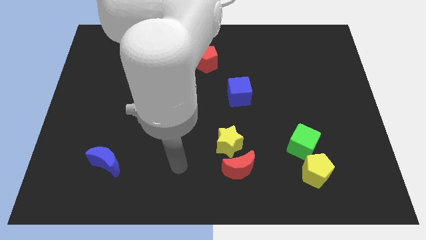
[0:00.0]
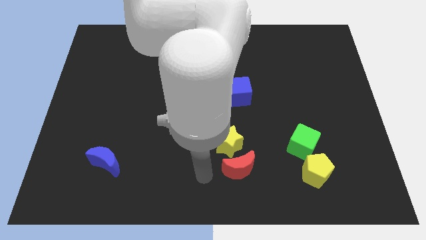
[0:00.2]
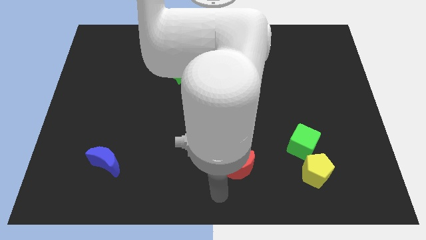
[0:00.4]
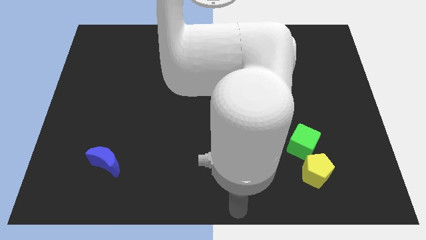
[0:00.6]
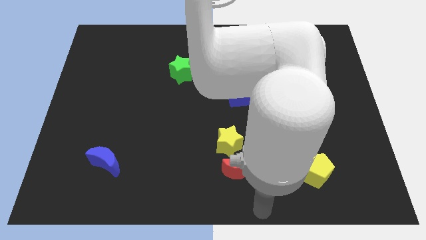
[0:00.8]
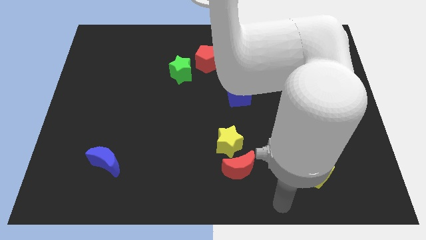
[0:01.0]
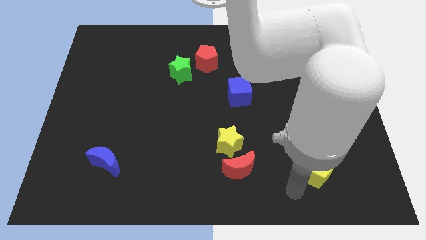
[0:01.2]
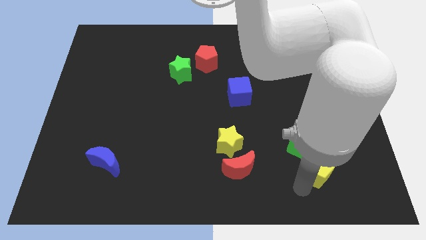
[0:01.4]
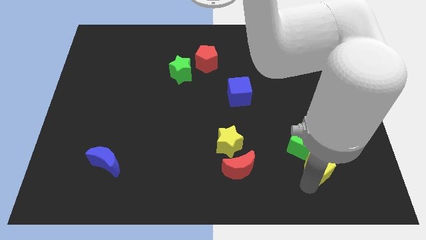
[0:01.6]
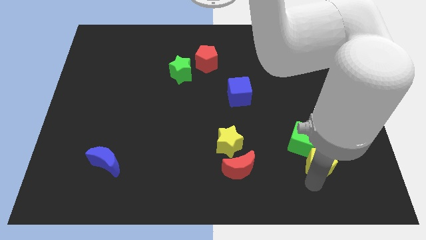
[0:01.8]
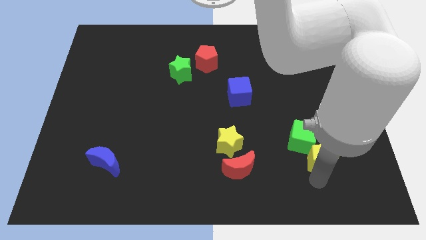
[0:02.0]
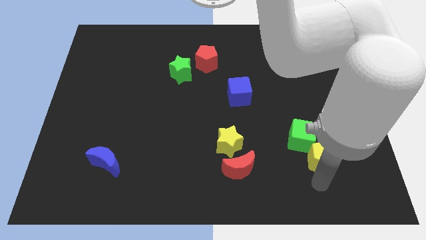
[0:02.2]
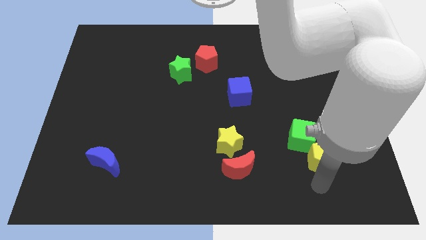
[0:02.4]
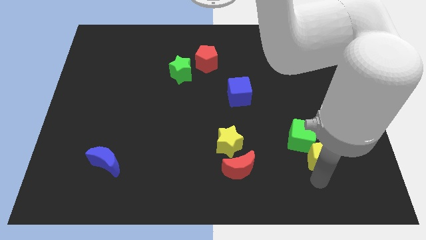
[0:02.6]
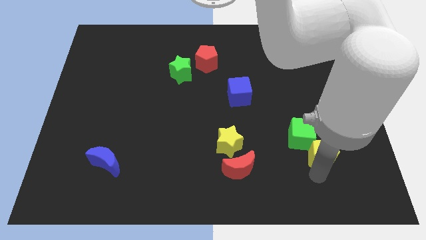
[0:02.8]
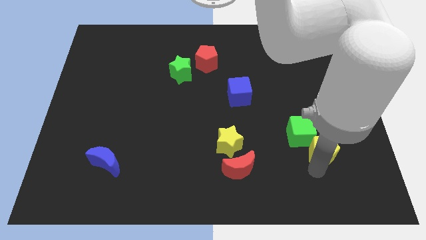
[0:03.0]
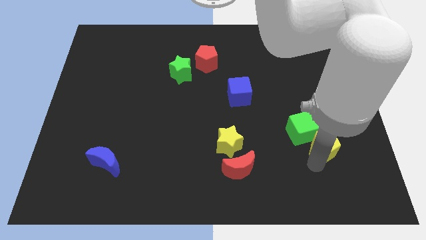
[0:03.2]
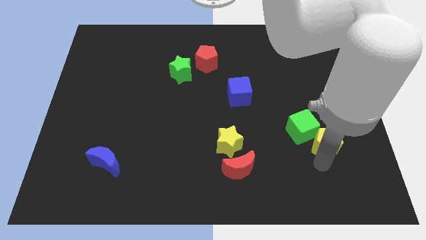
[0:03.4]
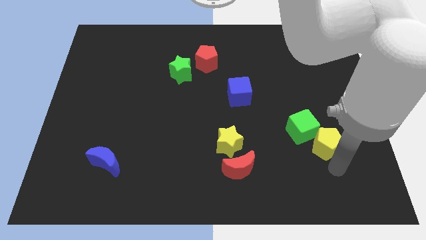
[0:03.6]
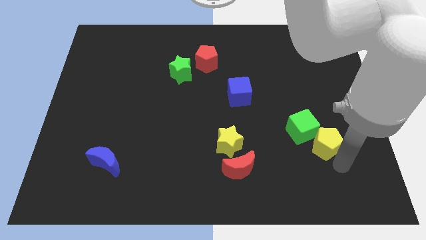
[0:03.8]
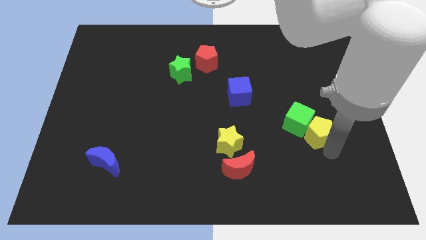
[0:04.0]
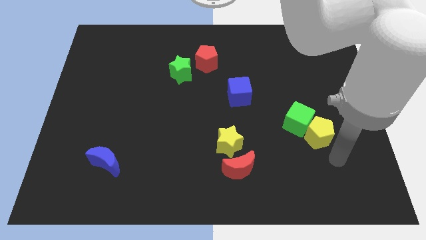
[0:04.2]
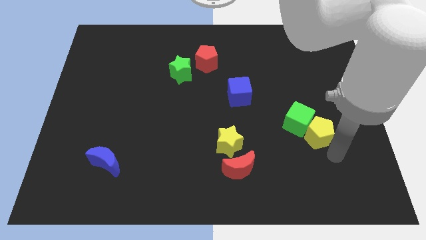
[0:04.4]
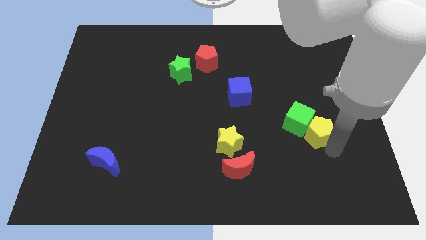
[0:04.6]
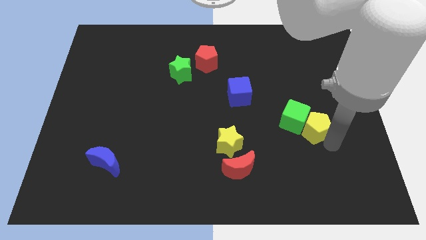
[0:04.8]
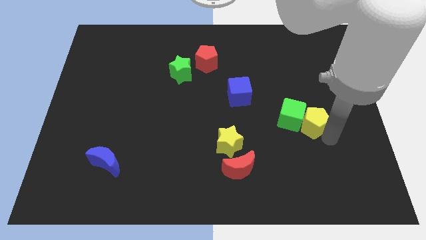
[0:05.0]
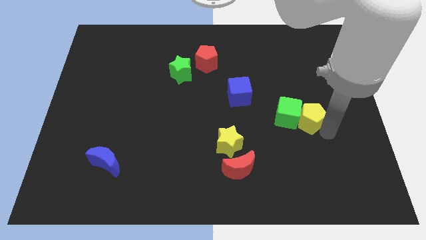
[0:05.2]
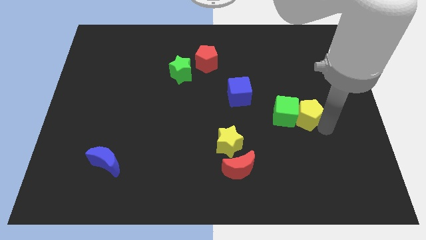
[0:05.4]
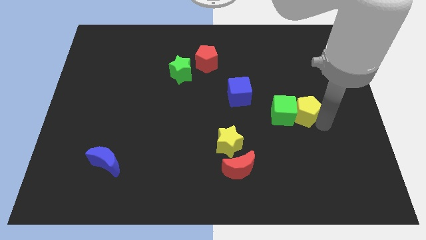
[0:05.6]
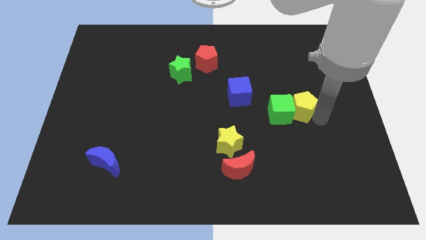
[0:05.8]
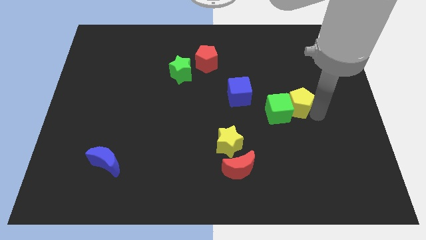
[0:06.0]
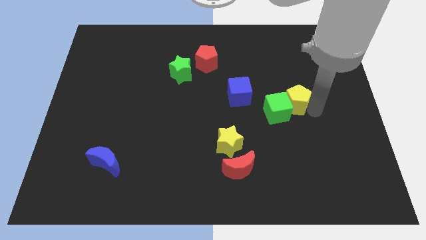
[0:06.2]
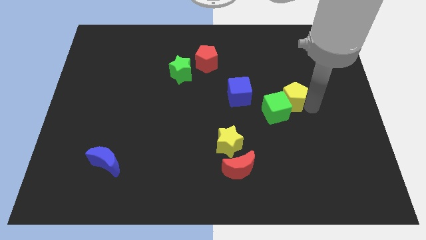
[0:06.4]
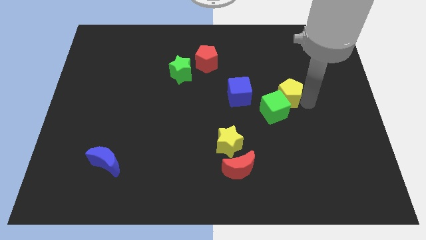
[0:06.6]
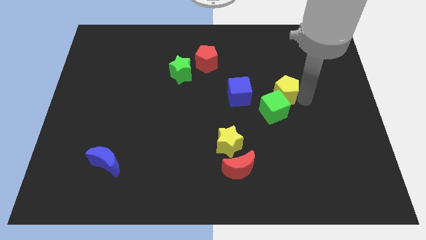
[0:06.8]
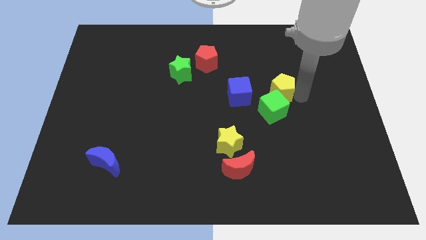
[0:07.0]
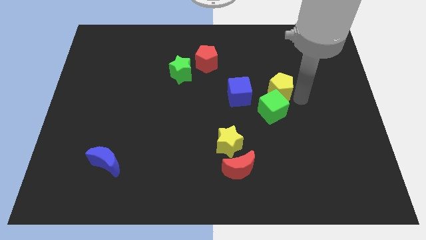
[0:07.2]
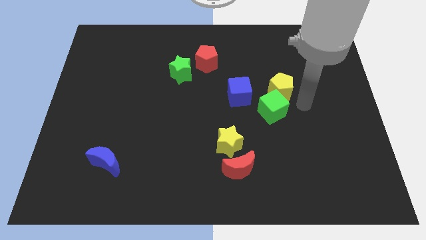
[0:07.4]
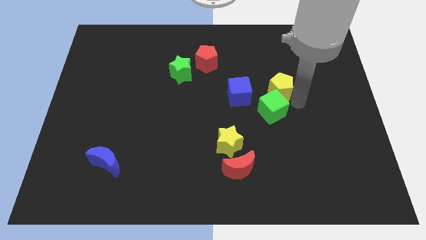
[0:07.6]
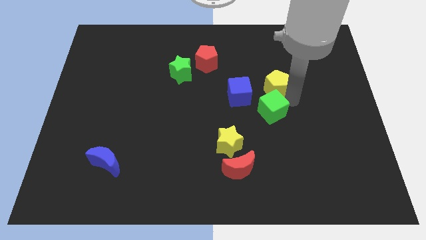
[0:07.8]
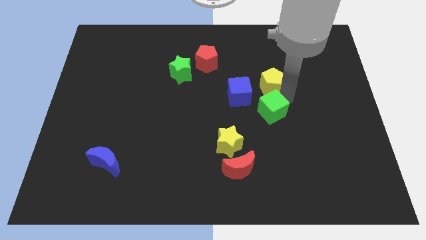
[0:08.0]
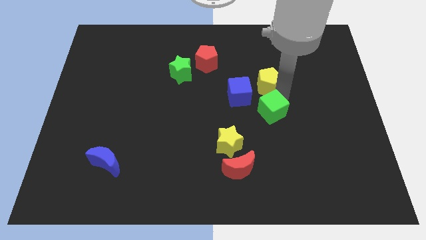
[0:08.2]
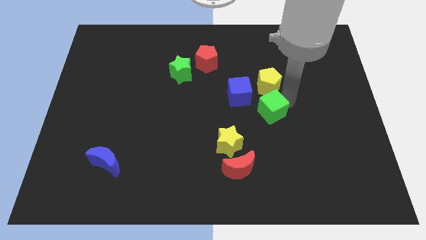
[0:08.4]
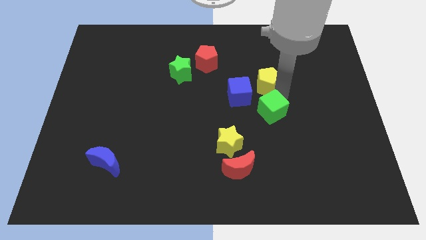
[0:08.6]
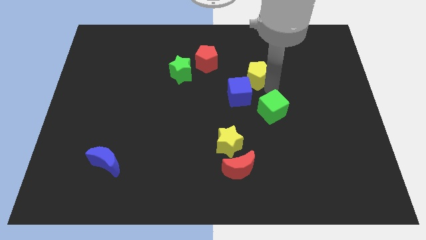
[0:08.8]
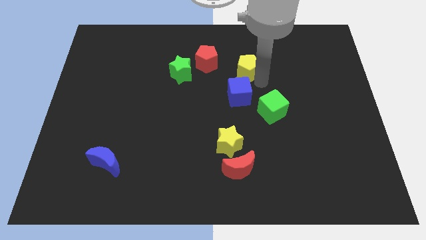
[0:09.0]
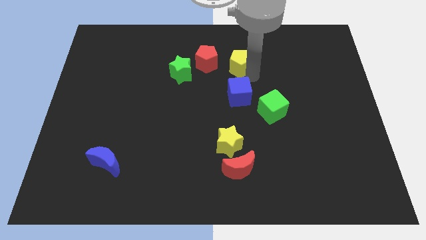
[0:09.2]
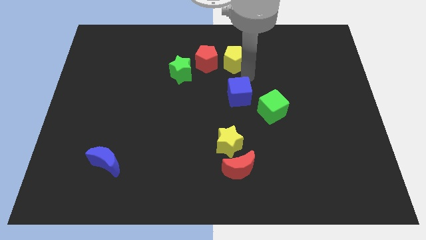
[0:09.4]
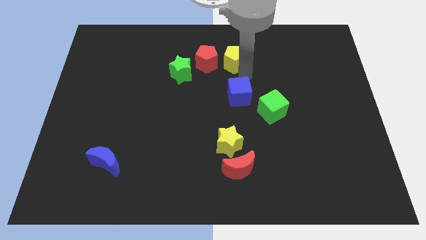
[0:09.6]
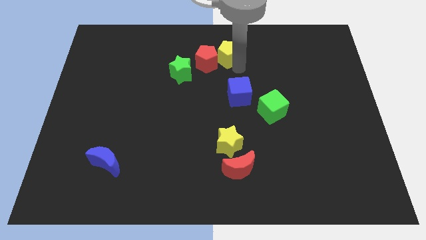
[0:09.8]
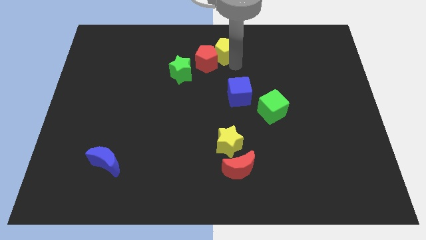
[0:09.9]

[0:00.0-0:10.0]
move the yellow pentagon to the towards your base

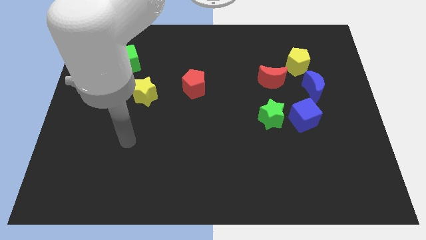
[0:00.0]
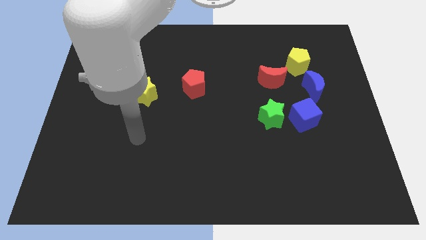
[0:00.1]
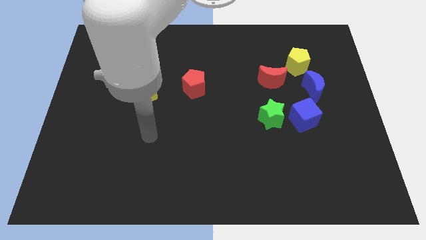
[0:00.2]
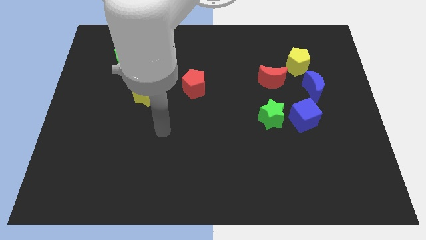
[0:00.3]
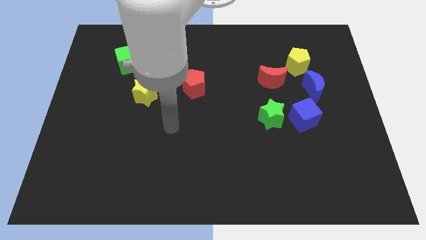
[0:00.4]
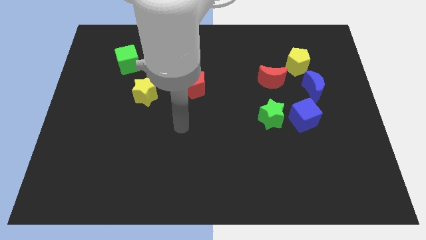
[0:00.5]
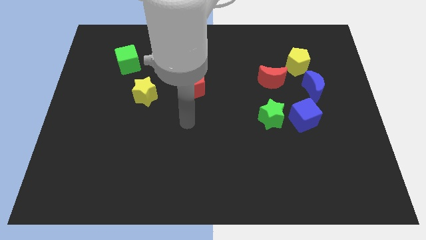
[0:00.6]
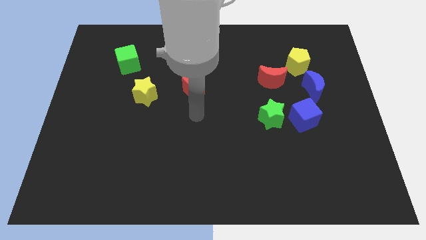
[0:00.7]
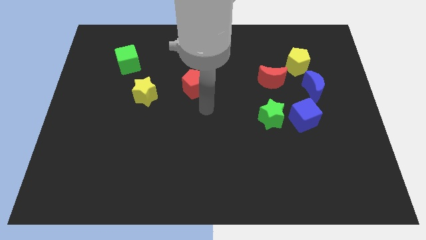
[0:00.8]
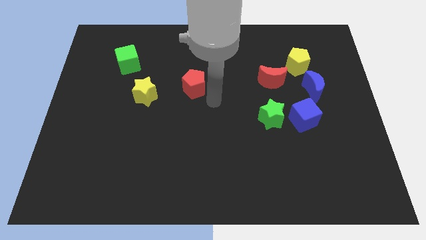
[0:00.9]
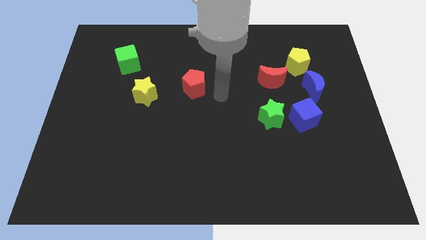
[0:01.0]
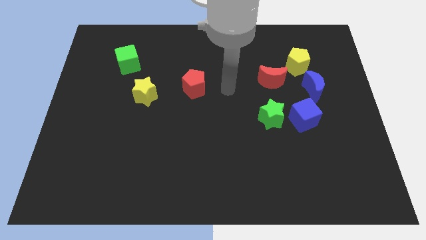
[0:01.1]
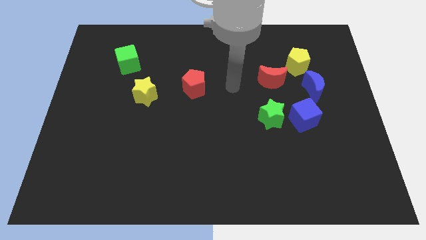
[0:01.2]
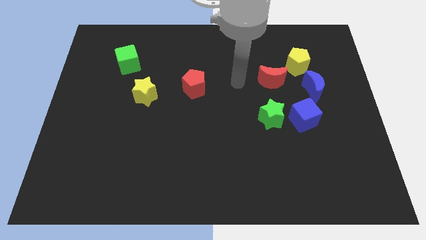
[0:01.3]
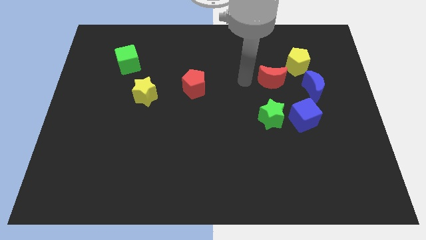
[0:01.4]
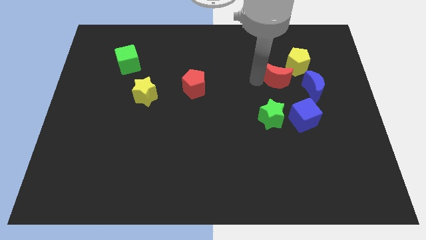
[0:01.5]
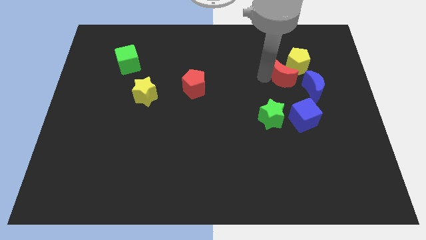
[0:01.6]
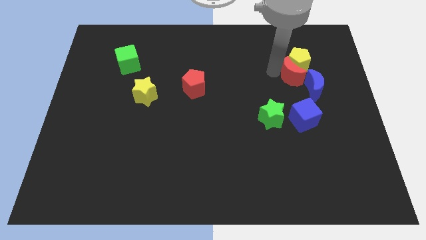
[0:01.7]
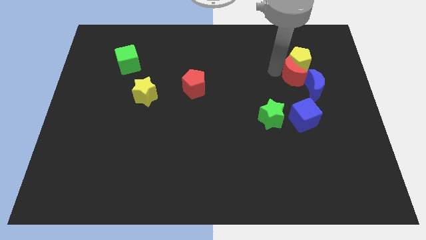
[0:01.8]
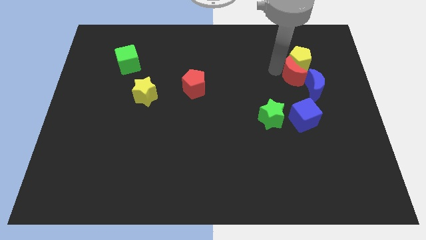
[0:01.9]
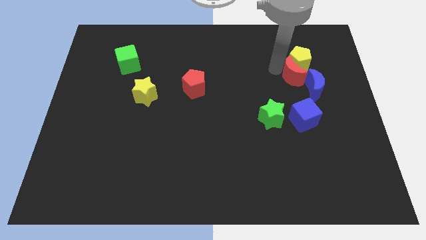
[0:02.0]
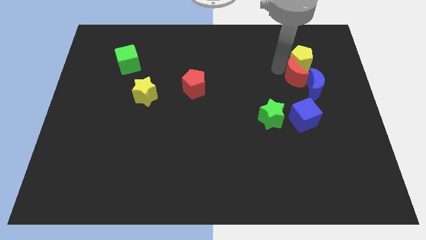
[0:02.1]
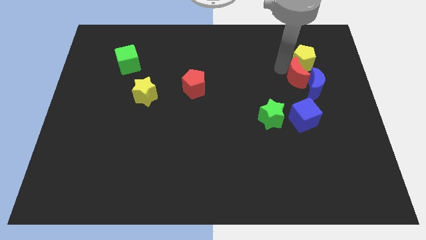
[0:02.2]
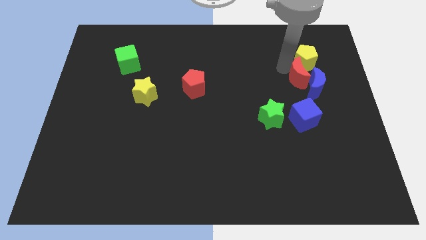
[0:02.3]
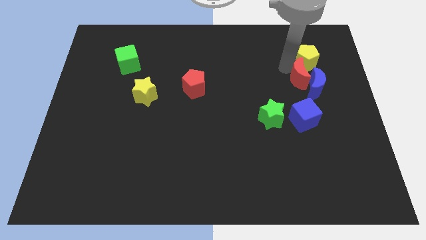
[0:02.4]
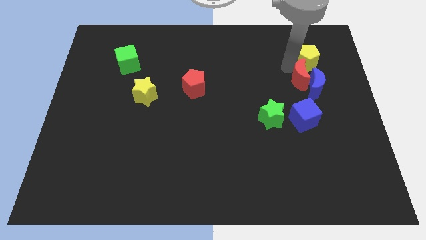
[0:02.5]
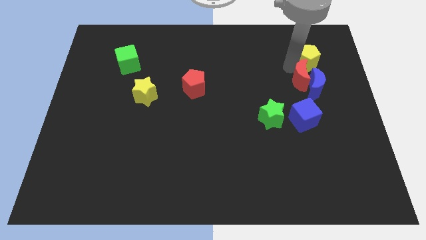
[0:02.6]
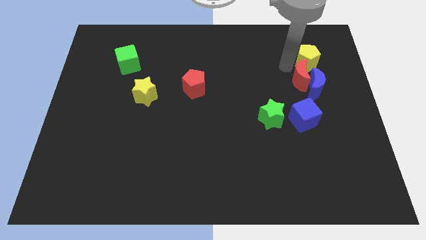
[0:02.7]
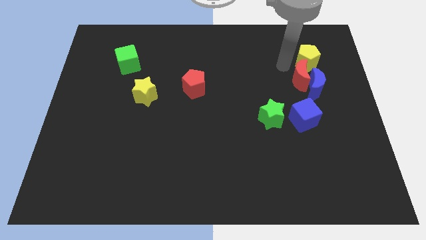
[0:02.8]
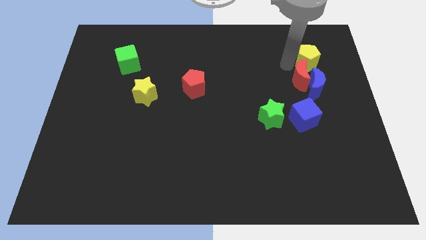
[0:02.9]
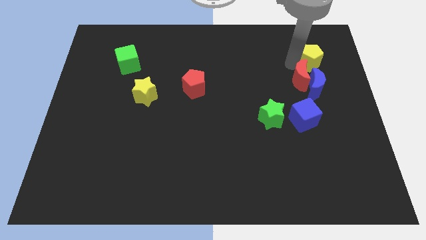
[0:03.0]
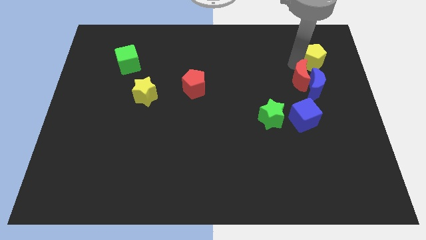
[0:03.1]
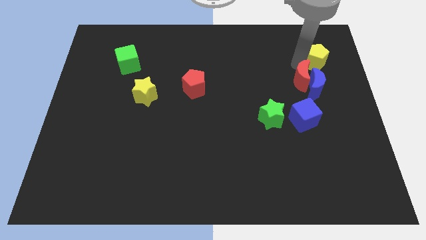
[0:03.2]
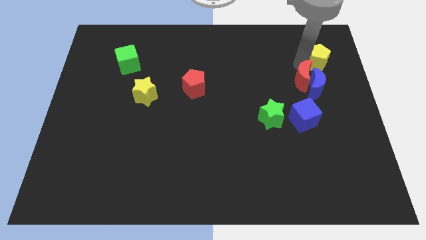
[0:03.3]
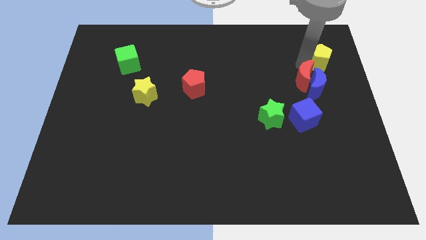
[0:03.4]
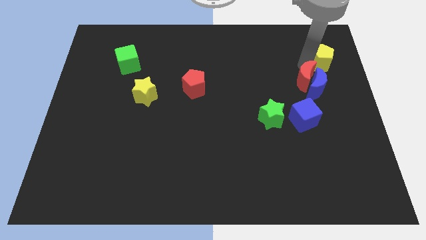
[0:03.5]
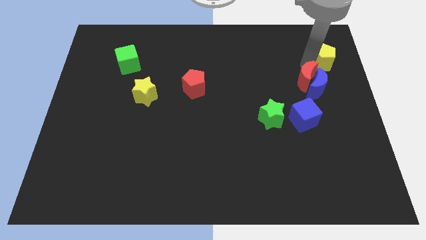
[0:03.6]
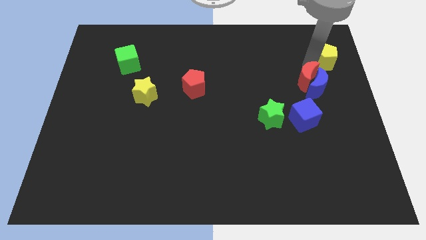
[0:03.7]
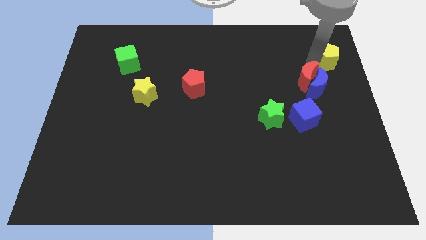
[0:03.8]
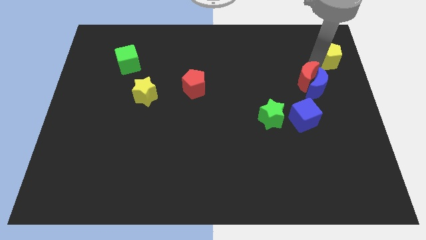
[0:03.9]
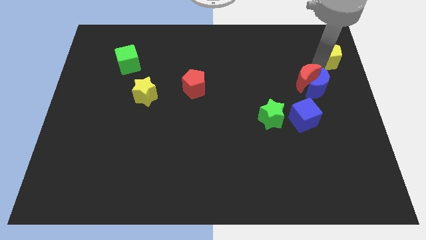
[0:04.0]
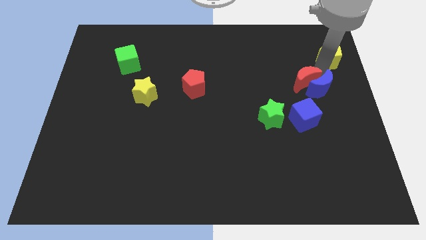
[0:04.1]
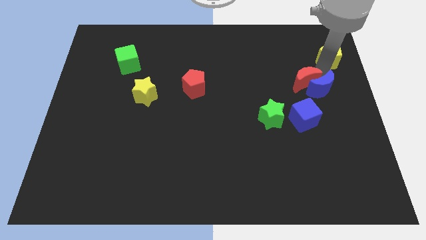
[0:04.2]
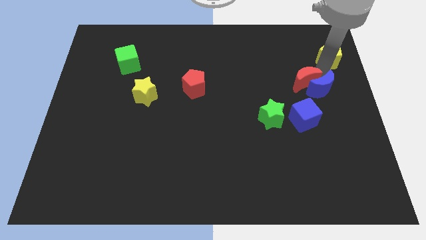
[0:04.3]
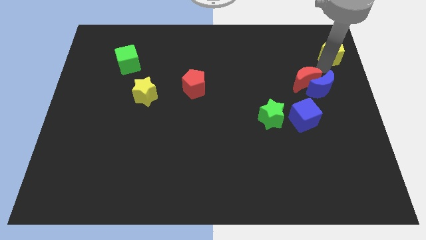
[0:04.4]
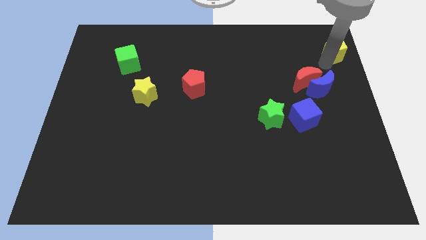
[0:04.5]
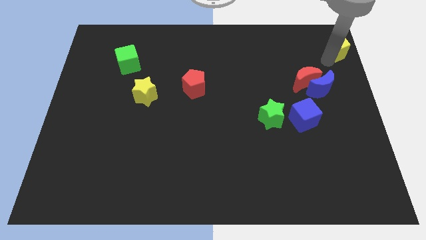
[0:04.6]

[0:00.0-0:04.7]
move the yellow pentagon to the top right of the board
